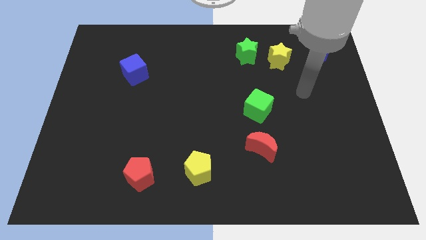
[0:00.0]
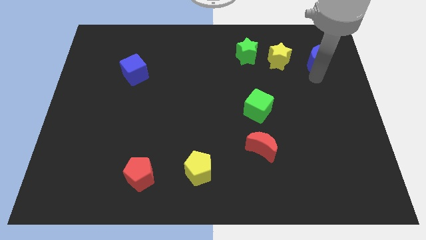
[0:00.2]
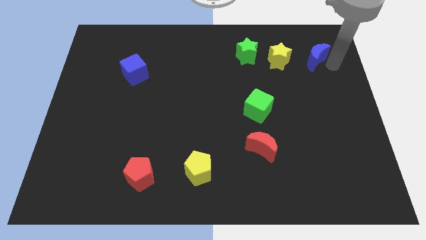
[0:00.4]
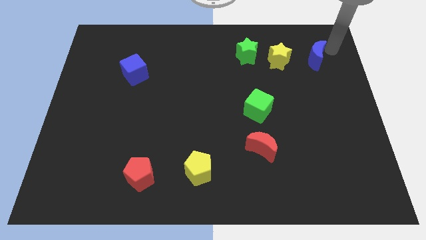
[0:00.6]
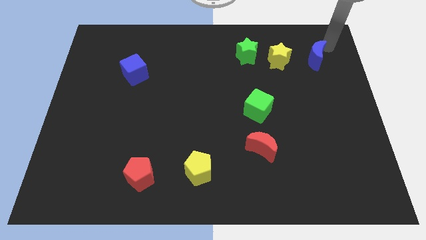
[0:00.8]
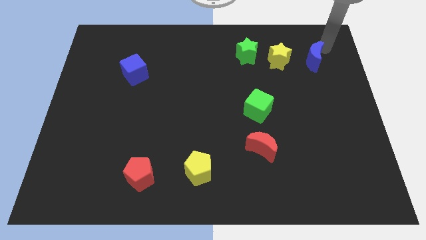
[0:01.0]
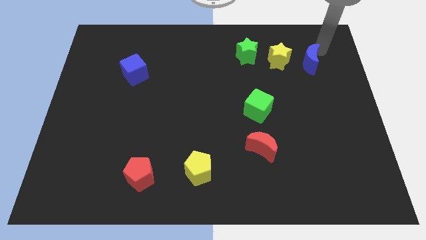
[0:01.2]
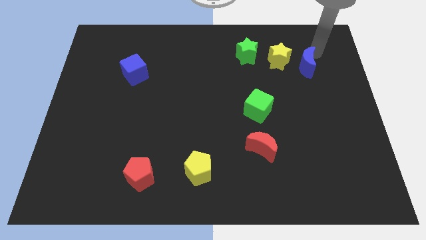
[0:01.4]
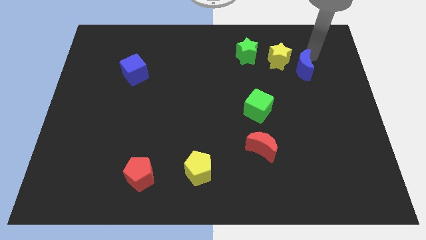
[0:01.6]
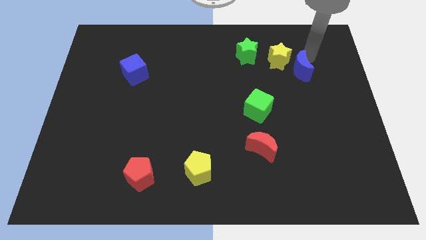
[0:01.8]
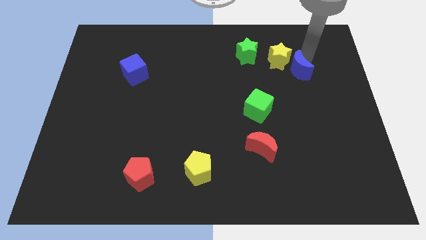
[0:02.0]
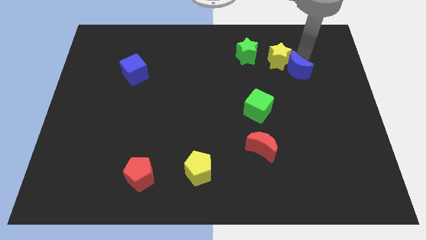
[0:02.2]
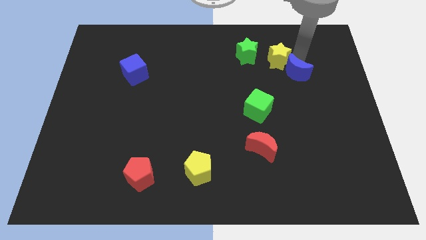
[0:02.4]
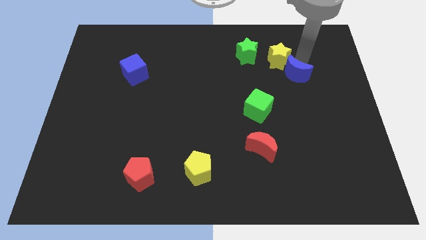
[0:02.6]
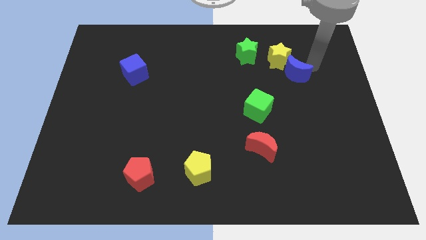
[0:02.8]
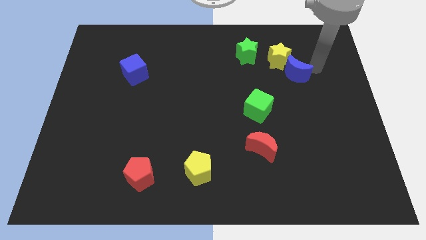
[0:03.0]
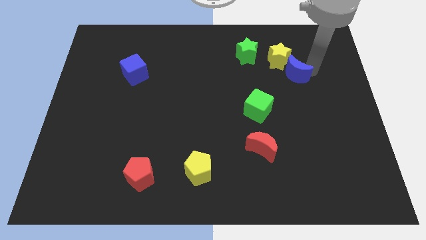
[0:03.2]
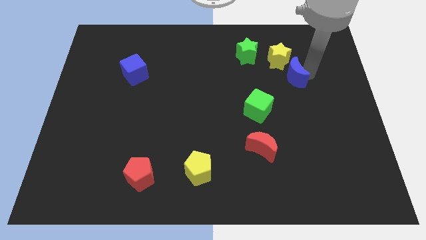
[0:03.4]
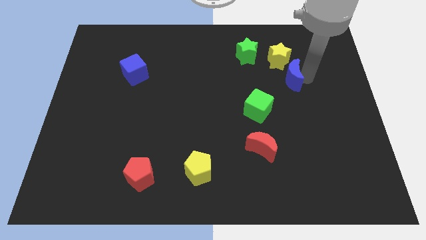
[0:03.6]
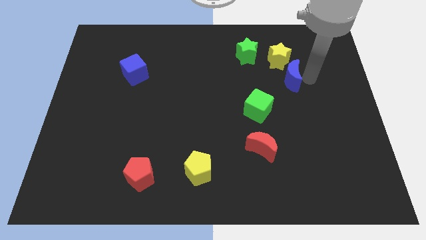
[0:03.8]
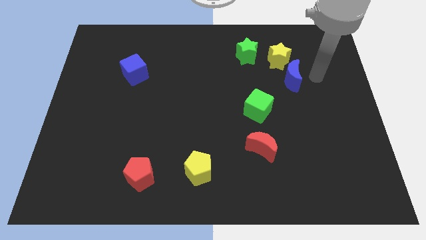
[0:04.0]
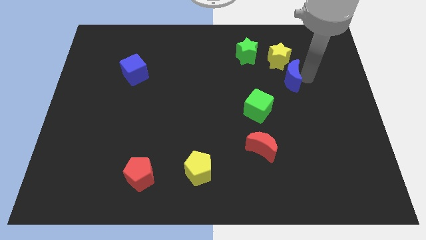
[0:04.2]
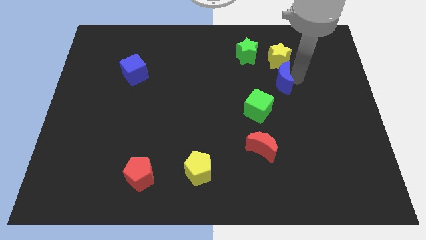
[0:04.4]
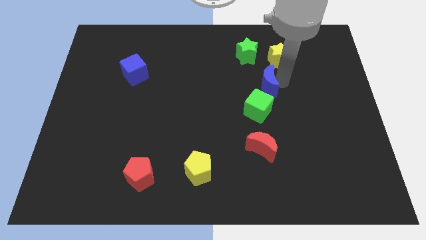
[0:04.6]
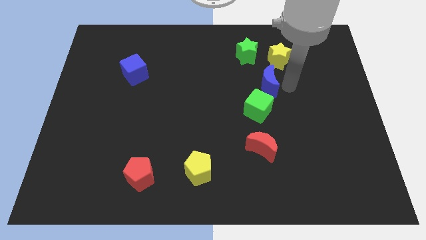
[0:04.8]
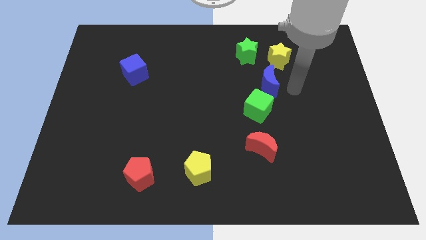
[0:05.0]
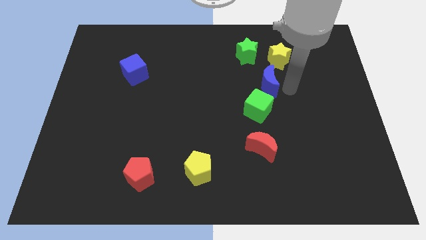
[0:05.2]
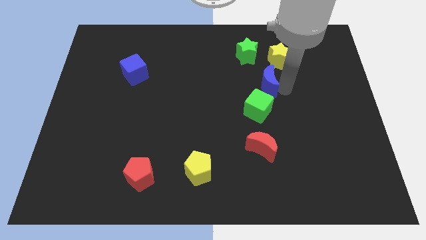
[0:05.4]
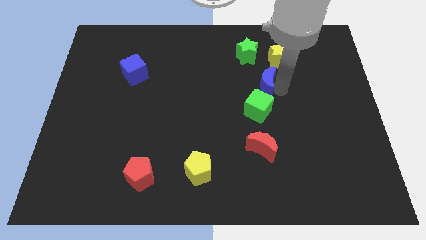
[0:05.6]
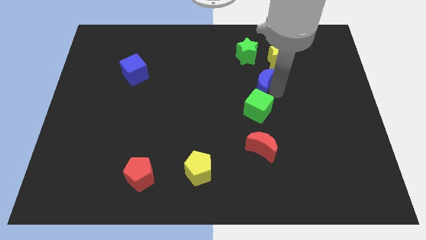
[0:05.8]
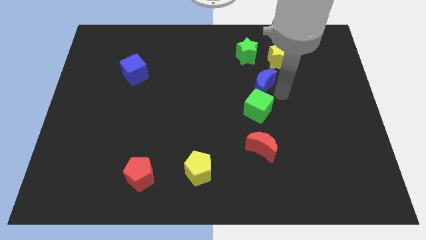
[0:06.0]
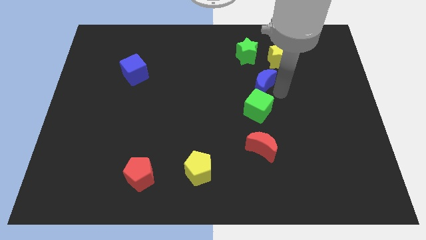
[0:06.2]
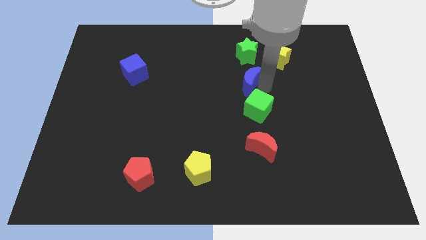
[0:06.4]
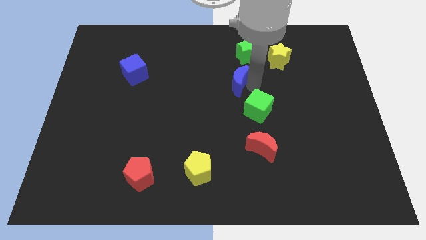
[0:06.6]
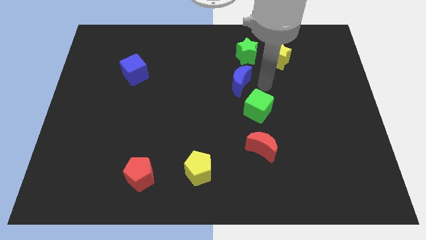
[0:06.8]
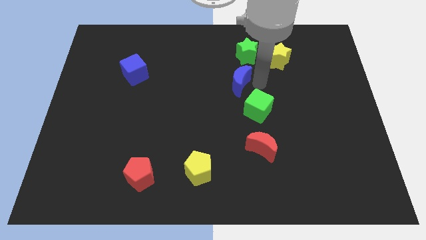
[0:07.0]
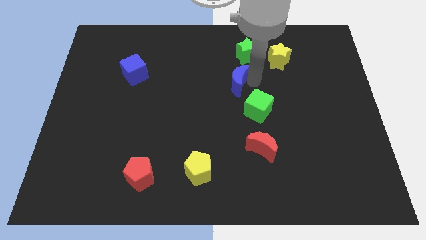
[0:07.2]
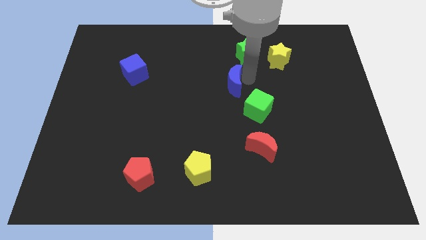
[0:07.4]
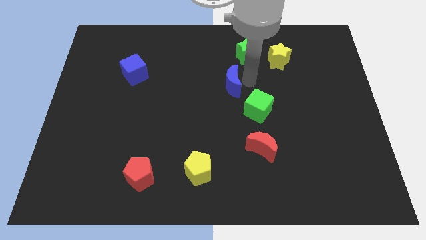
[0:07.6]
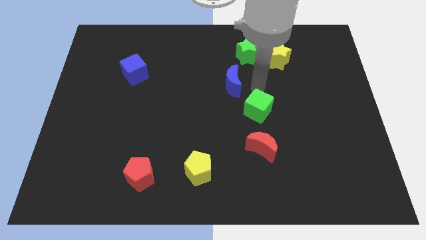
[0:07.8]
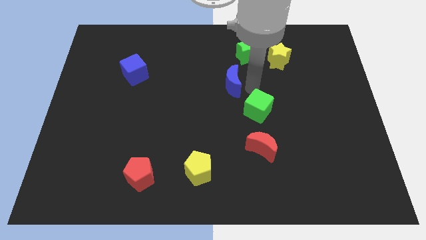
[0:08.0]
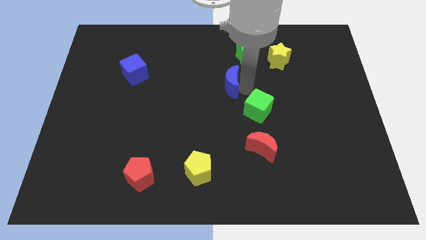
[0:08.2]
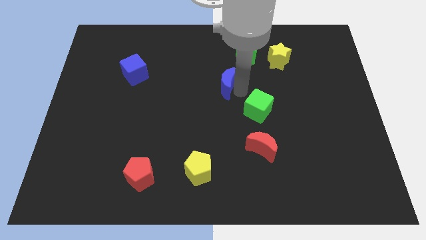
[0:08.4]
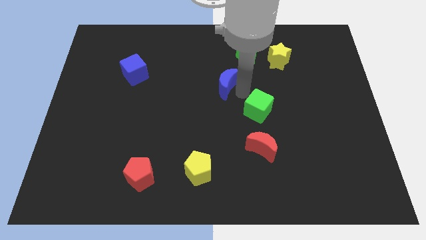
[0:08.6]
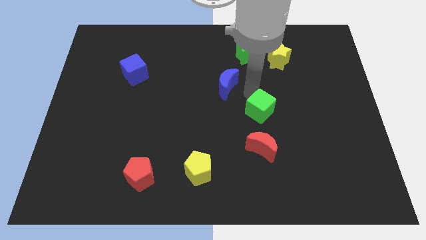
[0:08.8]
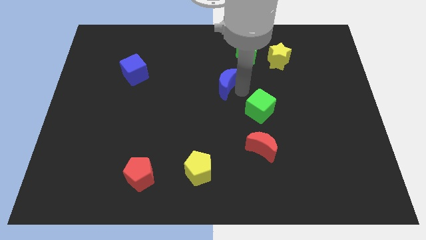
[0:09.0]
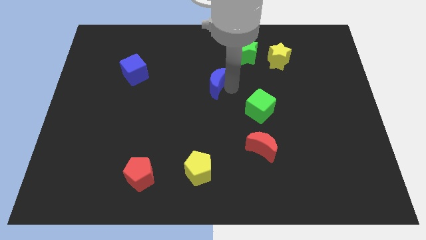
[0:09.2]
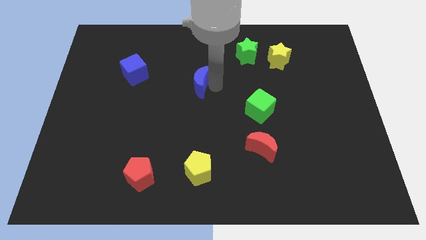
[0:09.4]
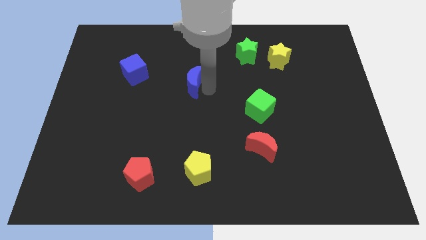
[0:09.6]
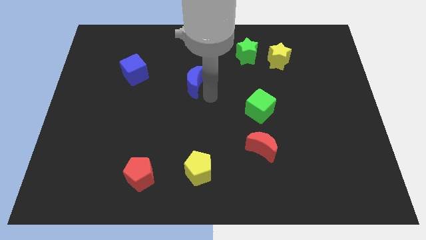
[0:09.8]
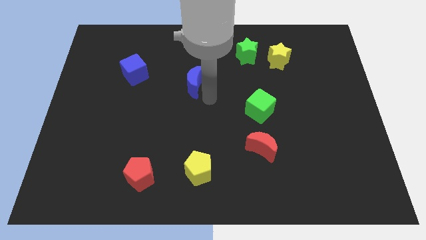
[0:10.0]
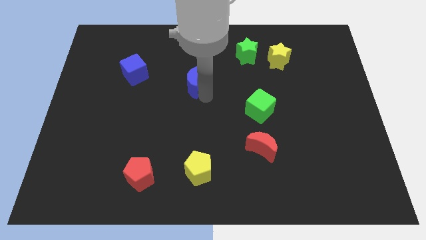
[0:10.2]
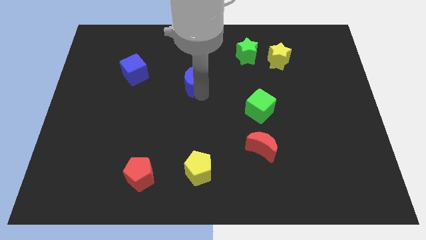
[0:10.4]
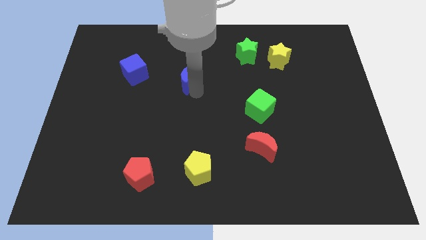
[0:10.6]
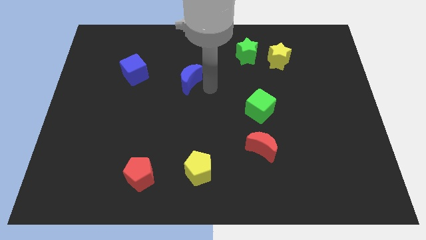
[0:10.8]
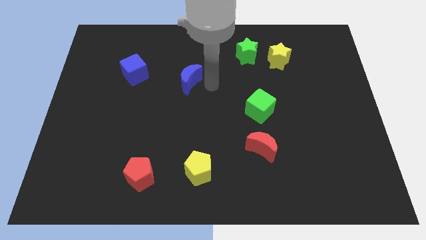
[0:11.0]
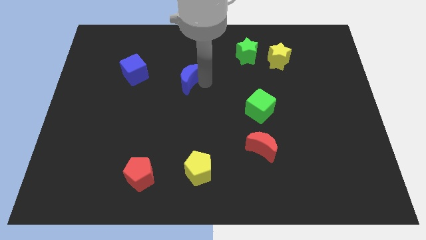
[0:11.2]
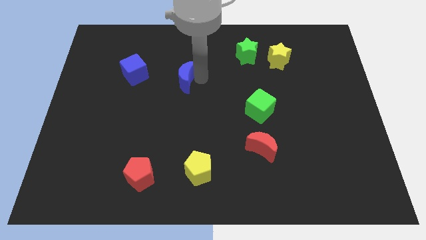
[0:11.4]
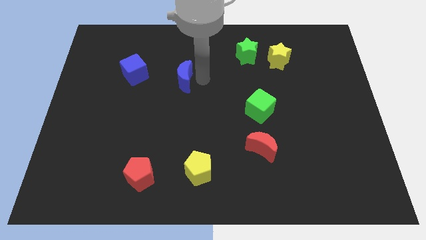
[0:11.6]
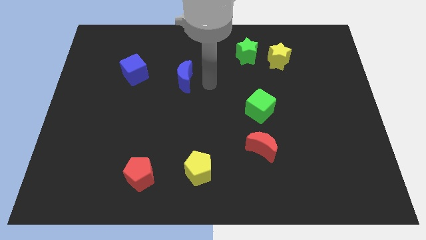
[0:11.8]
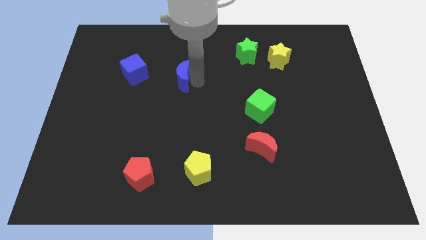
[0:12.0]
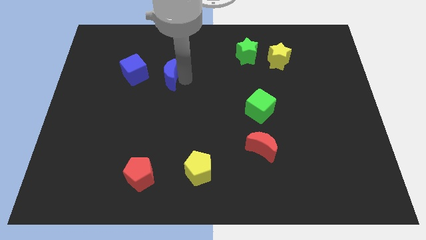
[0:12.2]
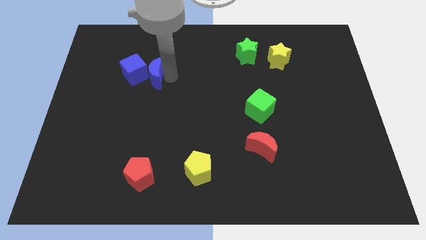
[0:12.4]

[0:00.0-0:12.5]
push the blue moon next to the blue cube
